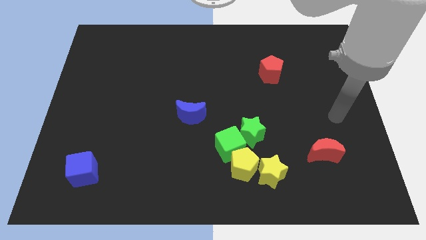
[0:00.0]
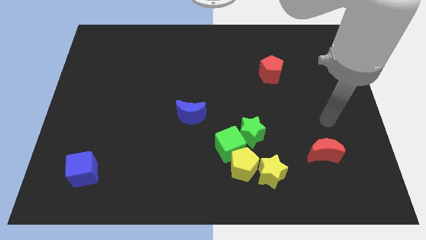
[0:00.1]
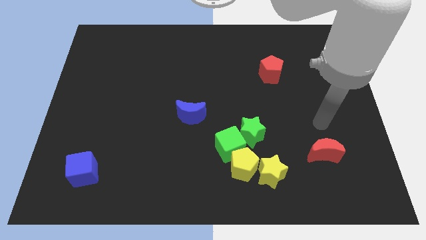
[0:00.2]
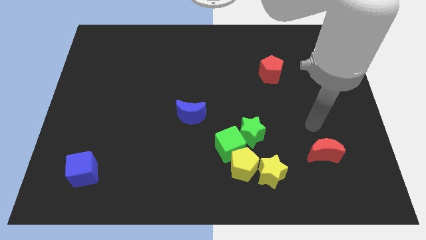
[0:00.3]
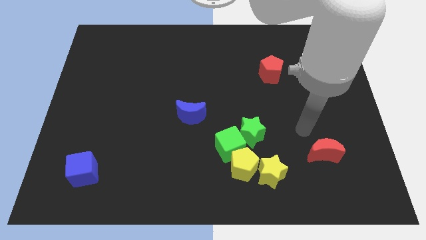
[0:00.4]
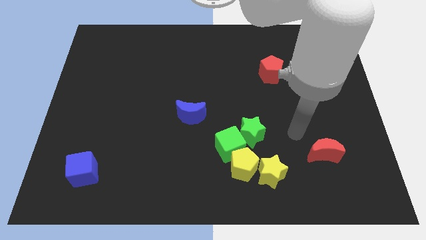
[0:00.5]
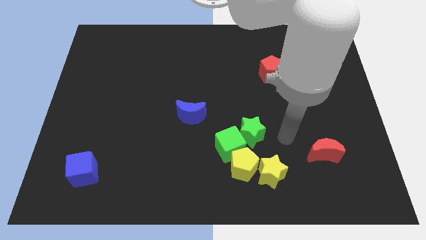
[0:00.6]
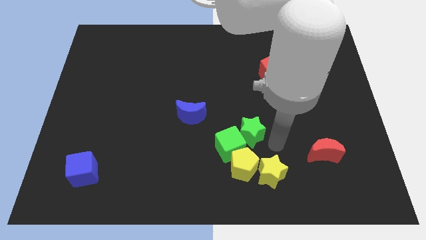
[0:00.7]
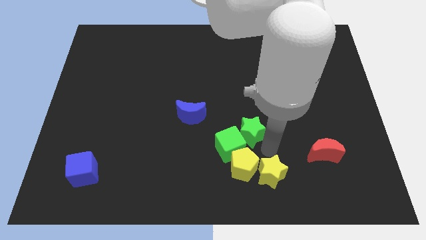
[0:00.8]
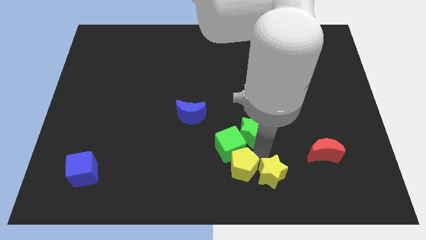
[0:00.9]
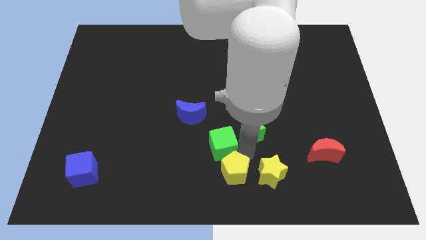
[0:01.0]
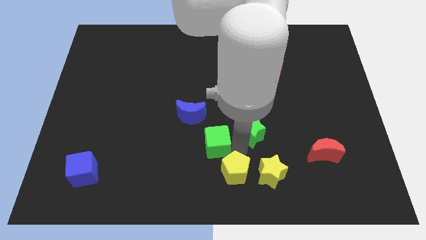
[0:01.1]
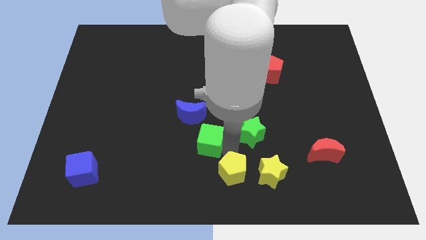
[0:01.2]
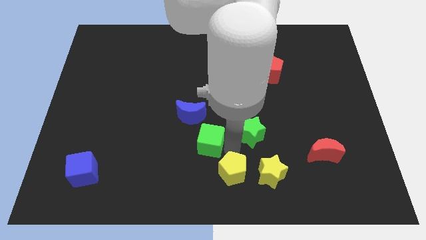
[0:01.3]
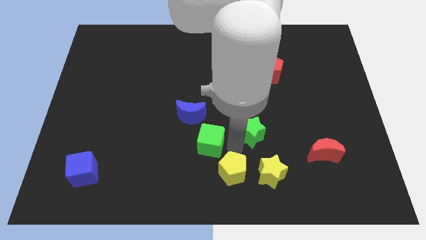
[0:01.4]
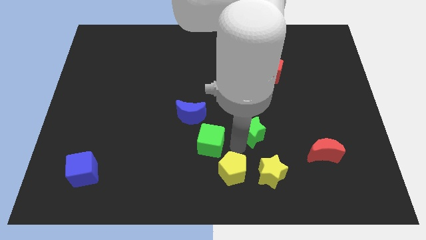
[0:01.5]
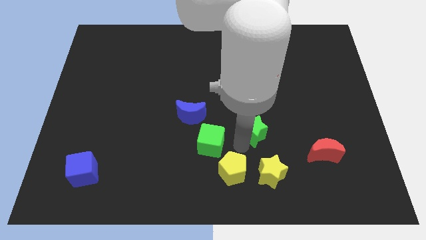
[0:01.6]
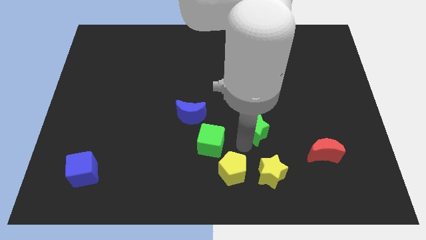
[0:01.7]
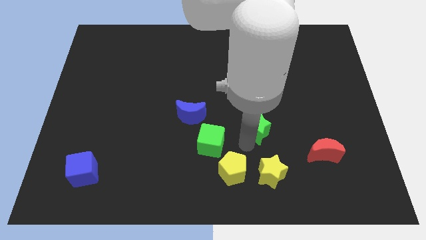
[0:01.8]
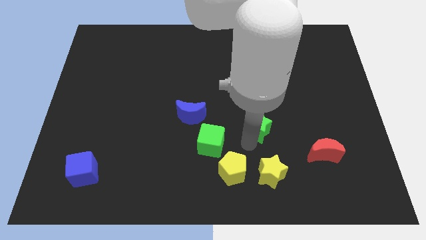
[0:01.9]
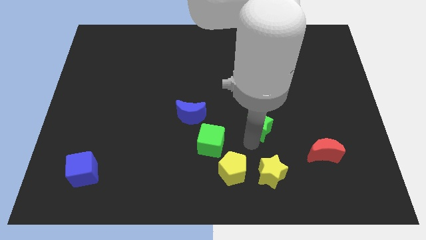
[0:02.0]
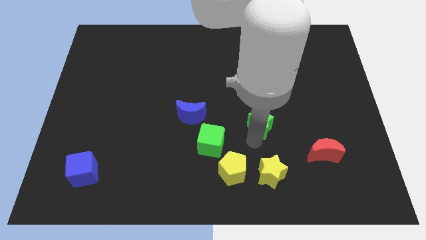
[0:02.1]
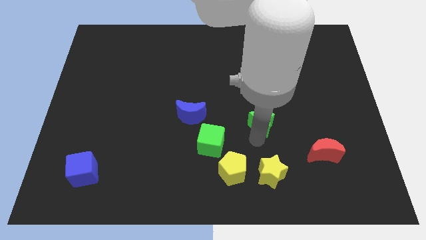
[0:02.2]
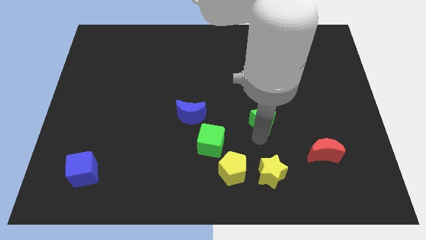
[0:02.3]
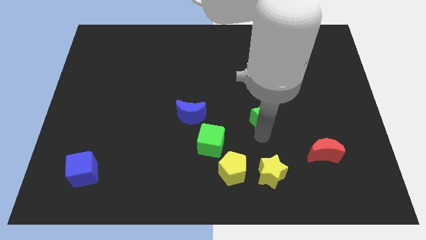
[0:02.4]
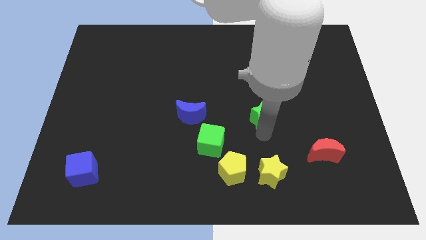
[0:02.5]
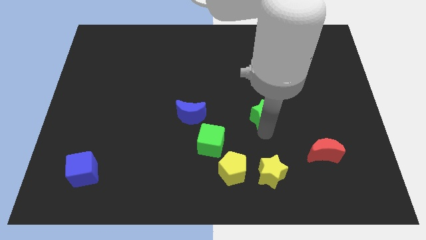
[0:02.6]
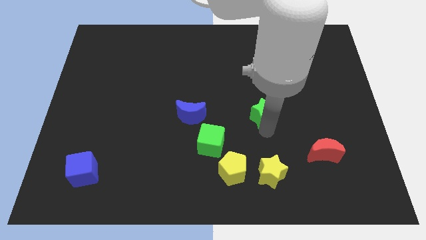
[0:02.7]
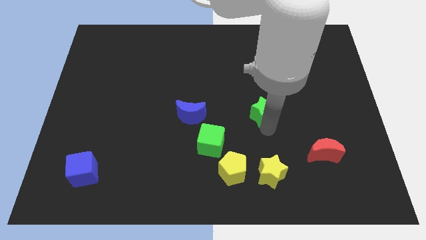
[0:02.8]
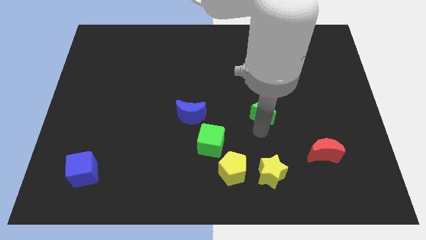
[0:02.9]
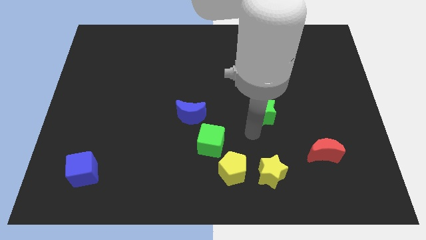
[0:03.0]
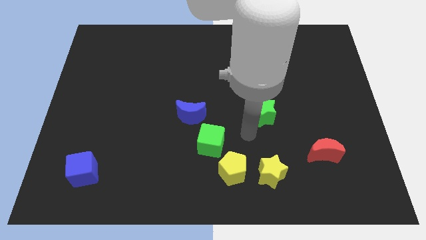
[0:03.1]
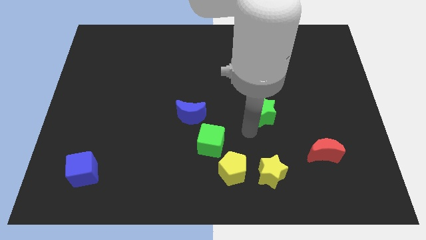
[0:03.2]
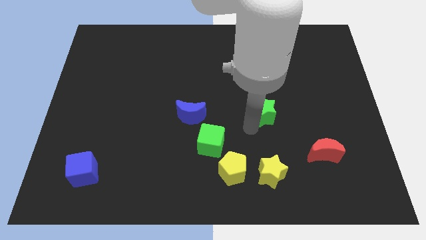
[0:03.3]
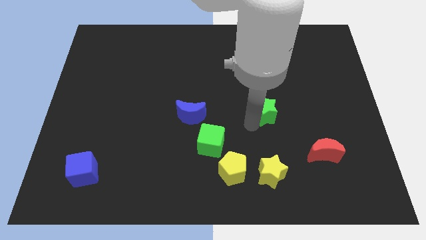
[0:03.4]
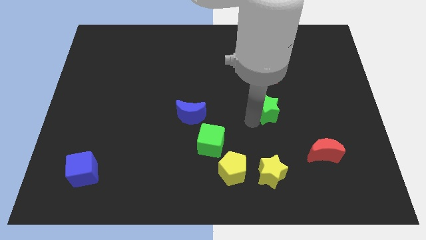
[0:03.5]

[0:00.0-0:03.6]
push the green star diagonally upwards and to the right slightly

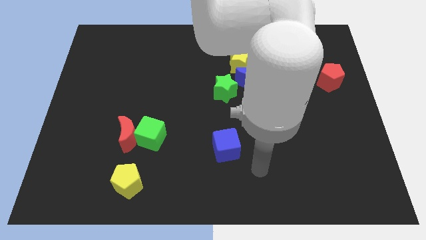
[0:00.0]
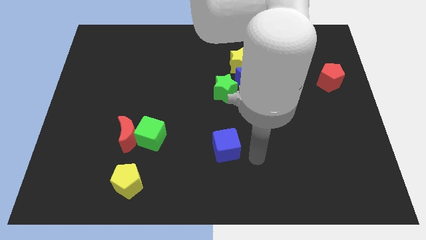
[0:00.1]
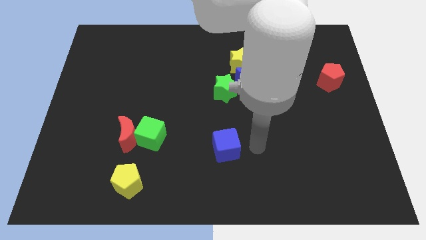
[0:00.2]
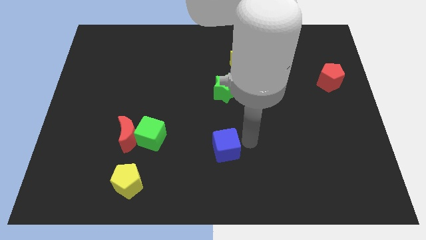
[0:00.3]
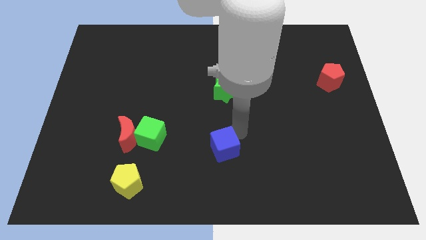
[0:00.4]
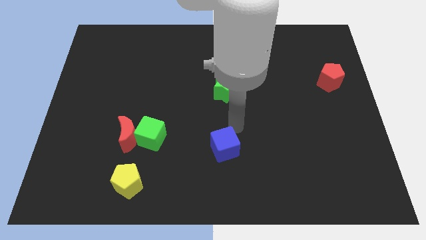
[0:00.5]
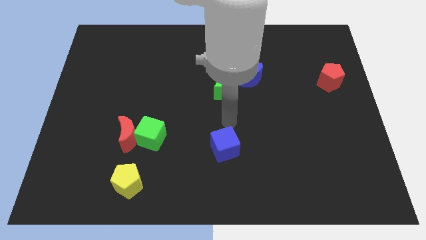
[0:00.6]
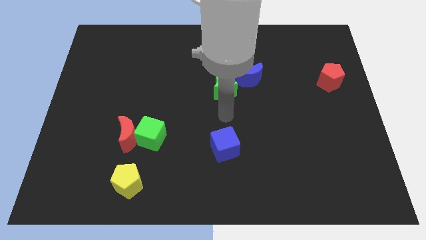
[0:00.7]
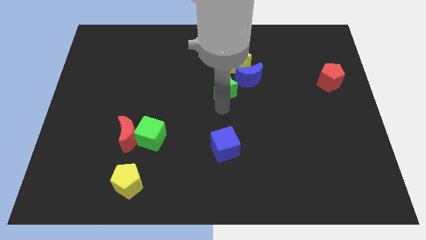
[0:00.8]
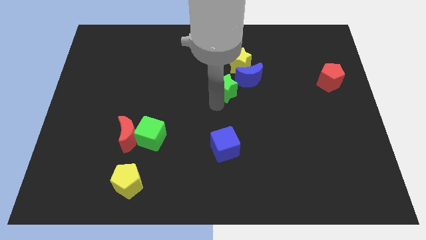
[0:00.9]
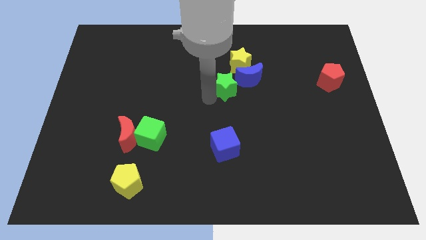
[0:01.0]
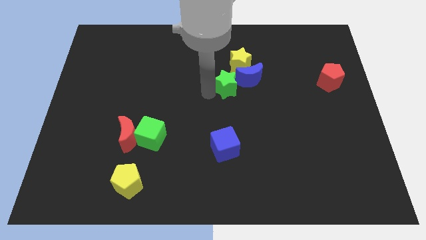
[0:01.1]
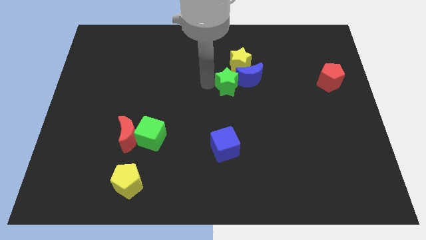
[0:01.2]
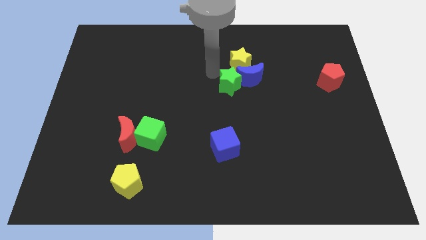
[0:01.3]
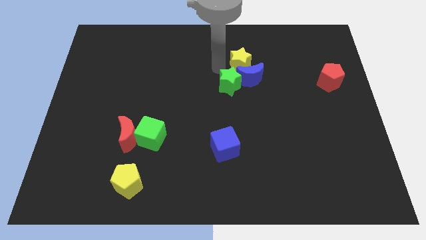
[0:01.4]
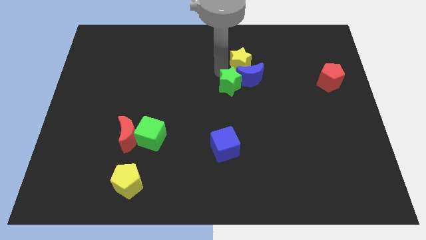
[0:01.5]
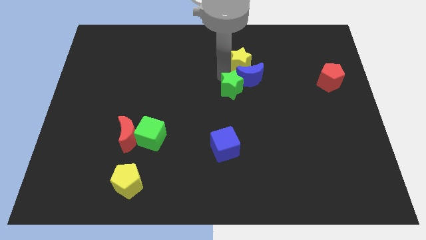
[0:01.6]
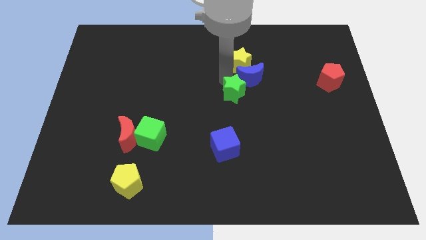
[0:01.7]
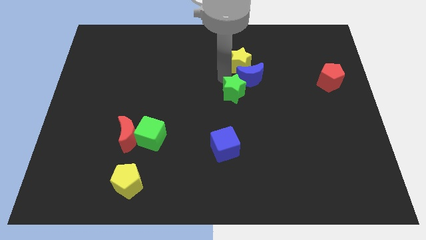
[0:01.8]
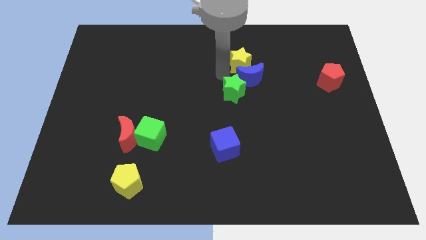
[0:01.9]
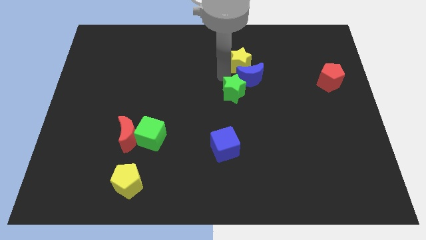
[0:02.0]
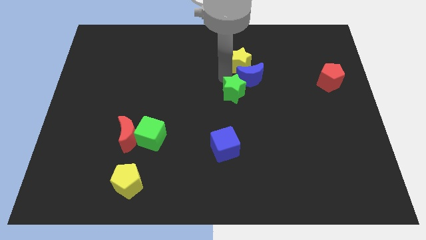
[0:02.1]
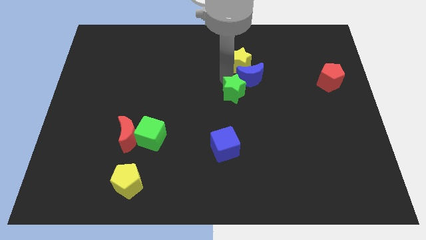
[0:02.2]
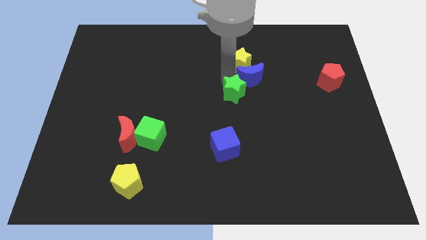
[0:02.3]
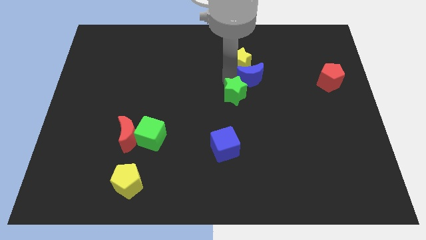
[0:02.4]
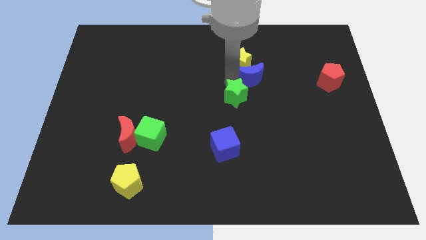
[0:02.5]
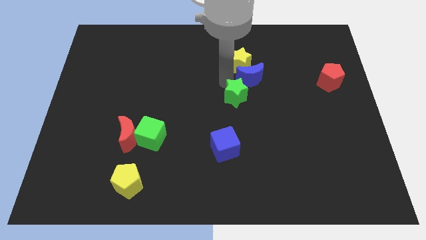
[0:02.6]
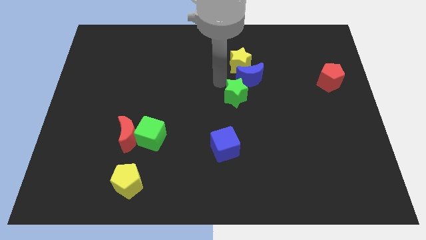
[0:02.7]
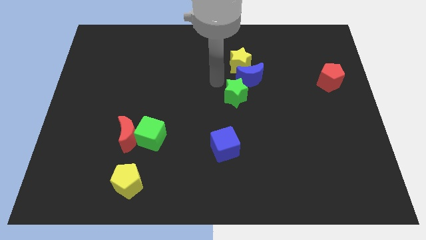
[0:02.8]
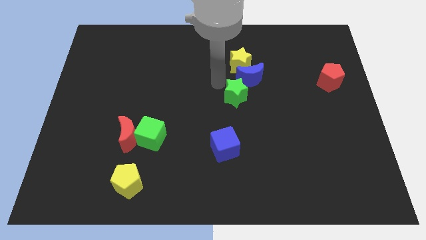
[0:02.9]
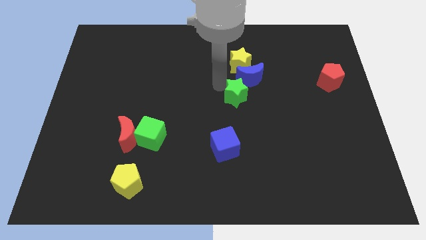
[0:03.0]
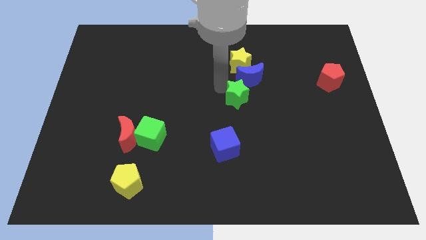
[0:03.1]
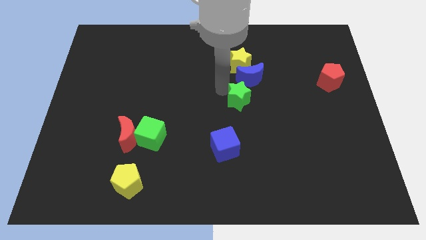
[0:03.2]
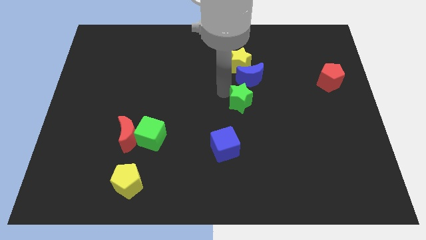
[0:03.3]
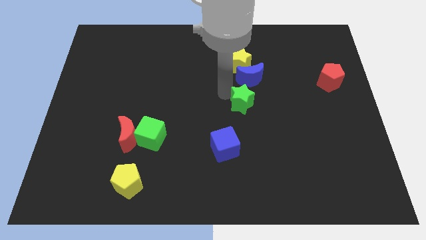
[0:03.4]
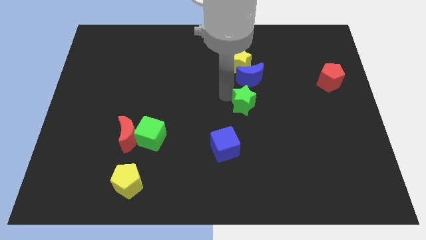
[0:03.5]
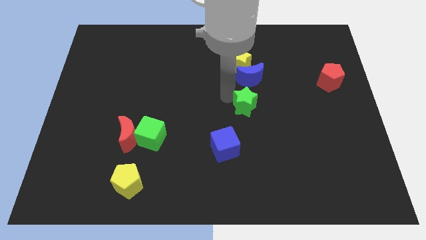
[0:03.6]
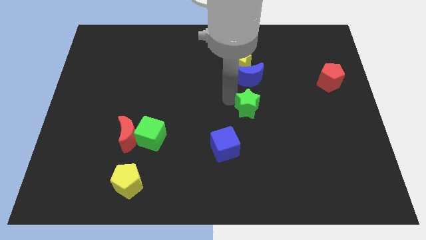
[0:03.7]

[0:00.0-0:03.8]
slightly move the green star downwards and right diagonally

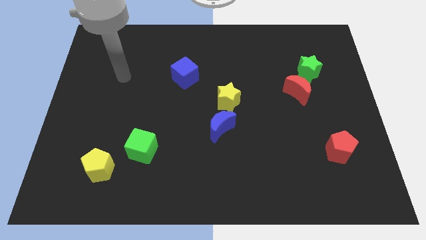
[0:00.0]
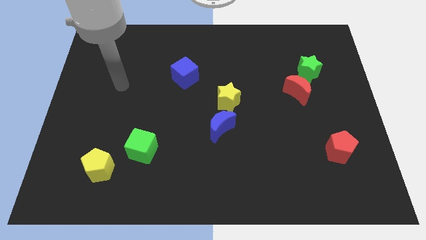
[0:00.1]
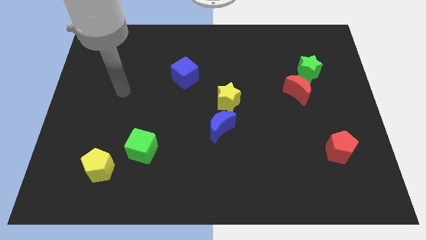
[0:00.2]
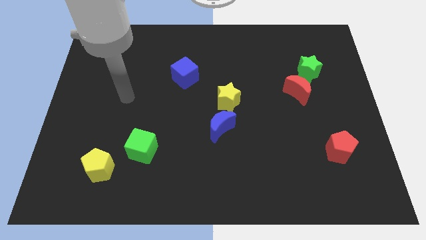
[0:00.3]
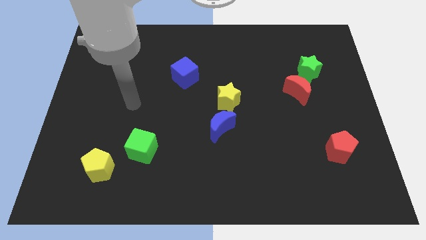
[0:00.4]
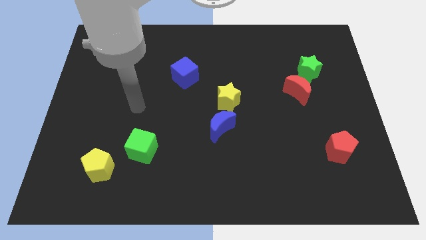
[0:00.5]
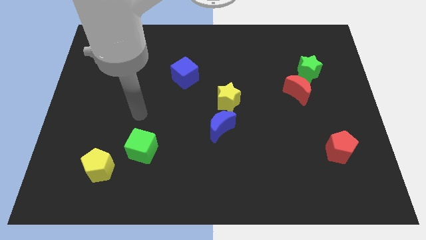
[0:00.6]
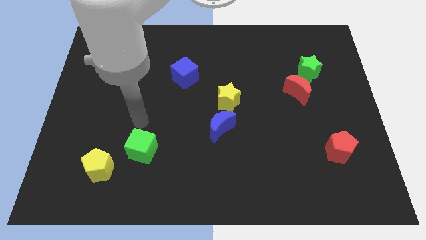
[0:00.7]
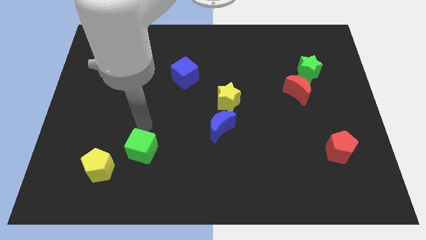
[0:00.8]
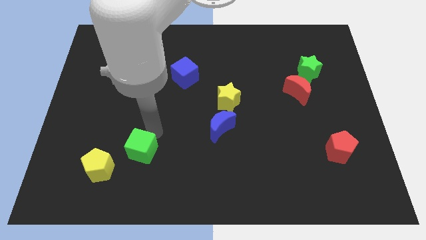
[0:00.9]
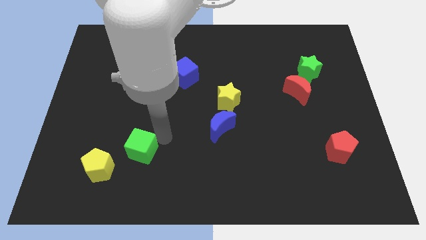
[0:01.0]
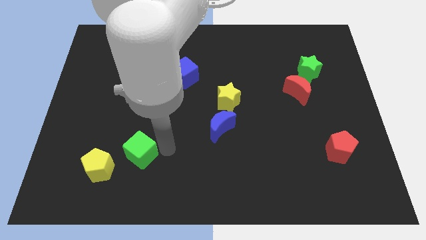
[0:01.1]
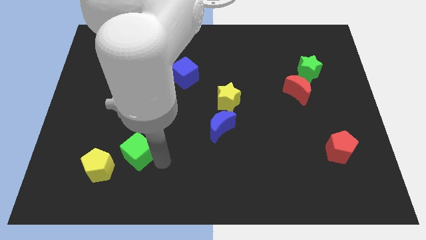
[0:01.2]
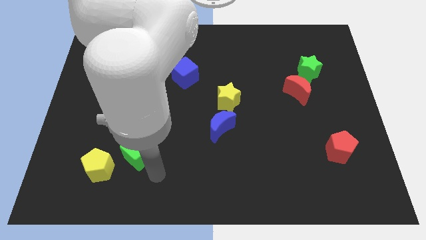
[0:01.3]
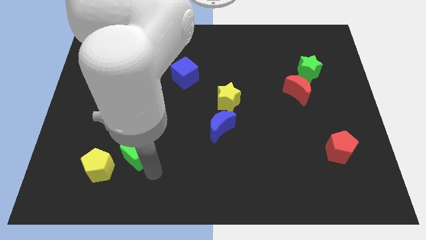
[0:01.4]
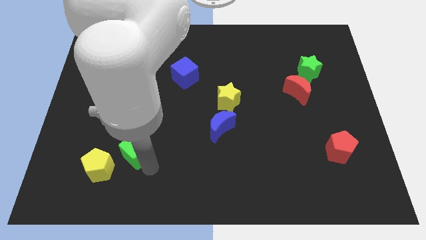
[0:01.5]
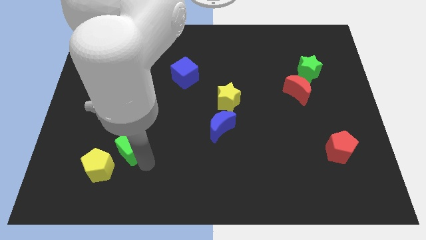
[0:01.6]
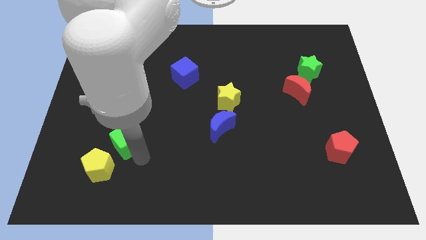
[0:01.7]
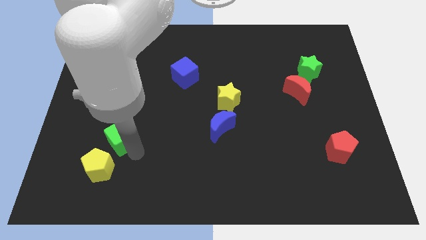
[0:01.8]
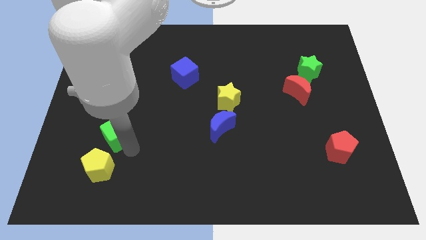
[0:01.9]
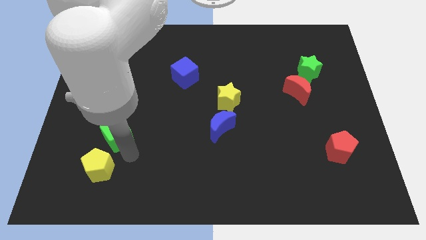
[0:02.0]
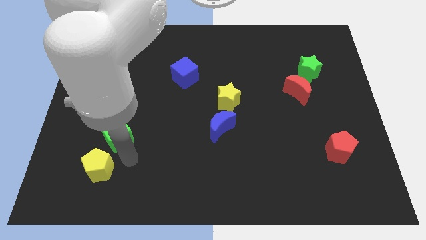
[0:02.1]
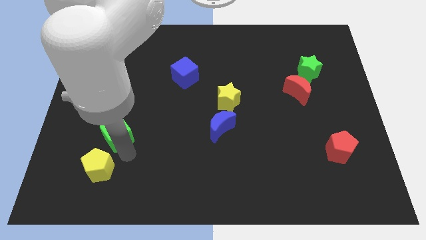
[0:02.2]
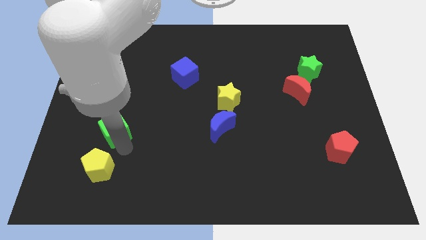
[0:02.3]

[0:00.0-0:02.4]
push the green cube slightly up and to the left diagonally
